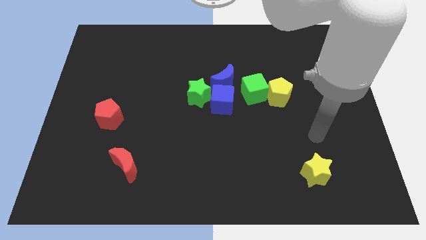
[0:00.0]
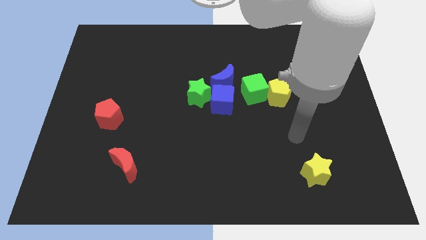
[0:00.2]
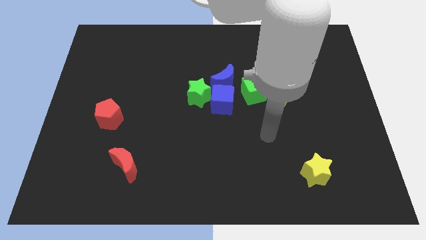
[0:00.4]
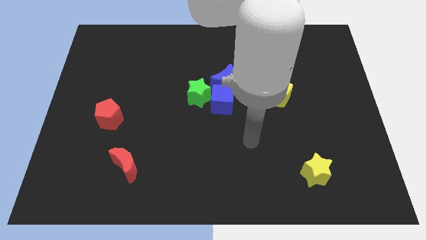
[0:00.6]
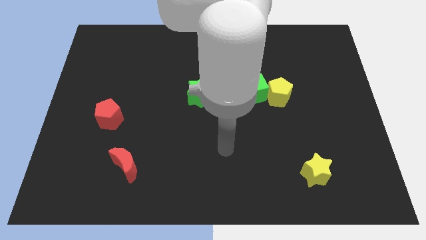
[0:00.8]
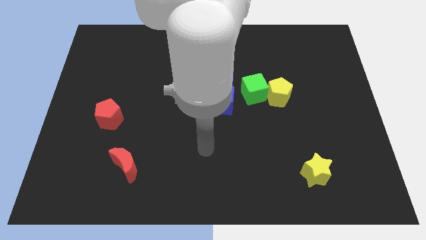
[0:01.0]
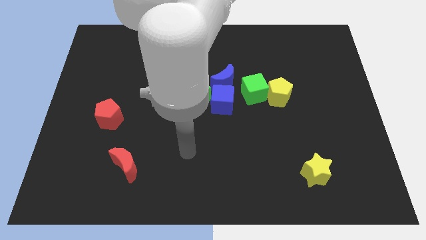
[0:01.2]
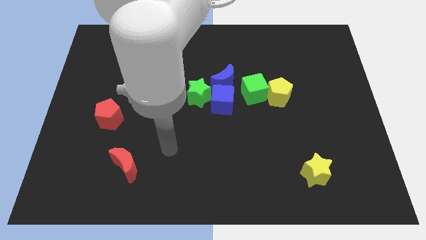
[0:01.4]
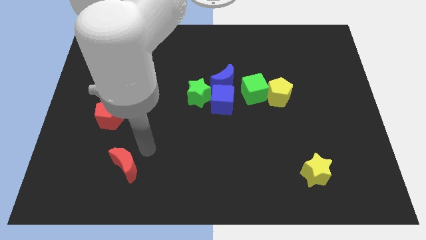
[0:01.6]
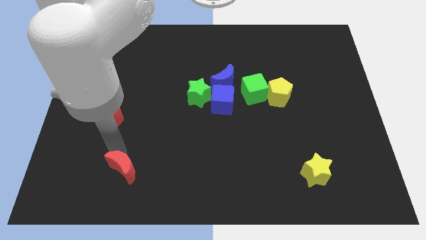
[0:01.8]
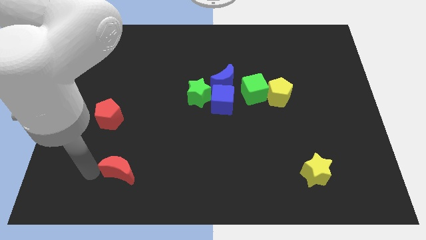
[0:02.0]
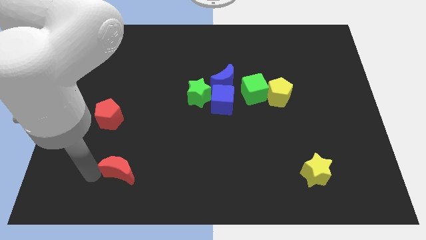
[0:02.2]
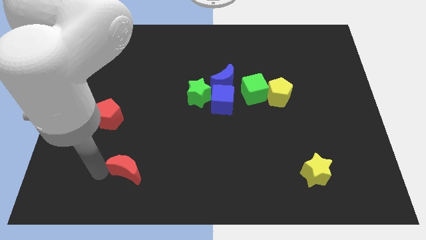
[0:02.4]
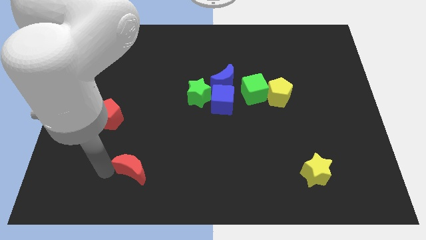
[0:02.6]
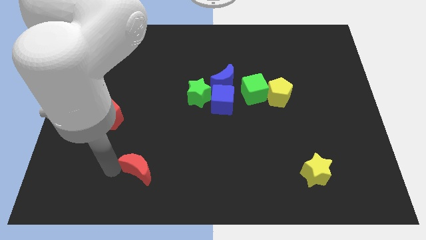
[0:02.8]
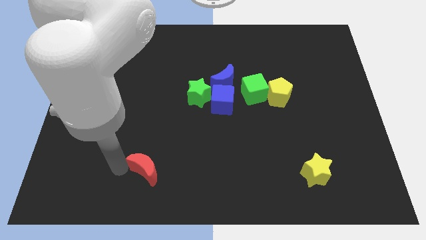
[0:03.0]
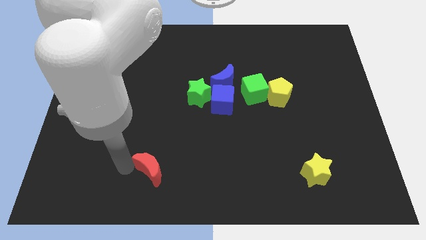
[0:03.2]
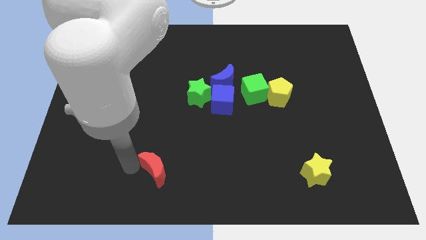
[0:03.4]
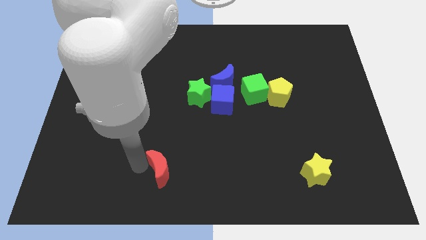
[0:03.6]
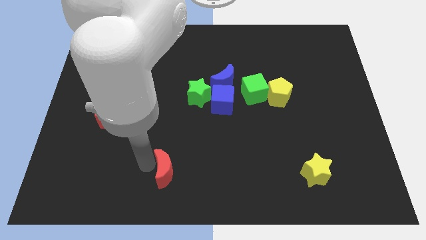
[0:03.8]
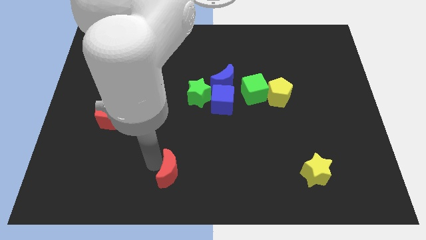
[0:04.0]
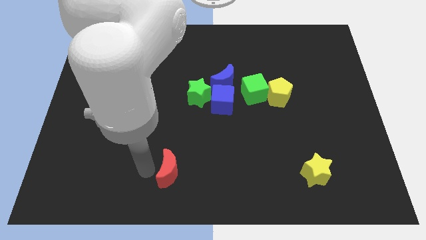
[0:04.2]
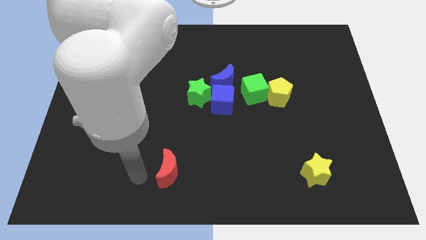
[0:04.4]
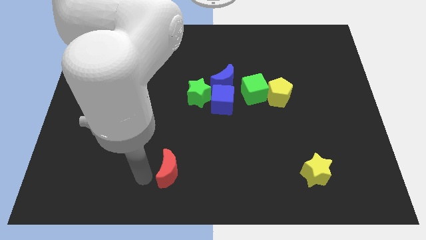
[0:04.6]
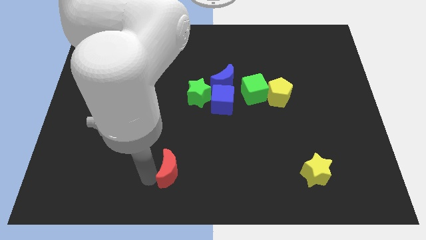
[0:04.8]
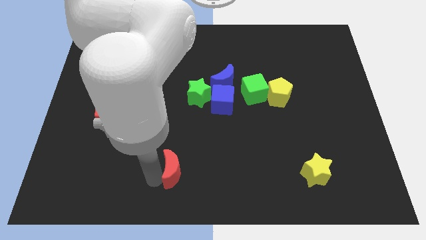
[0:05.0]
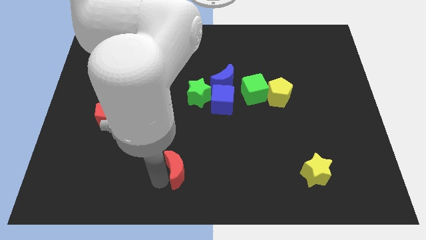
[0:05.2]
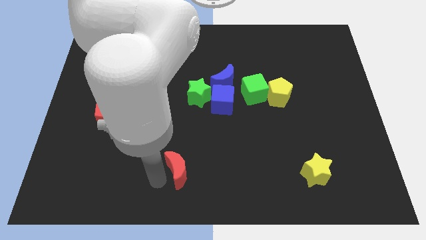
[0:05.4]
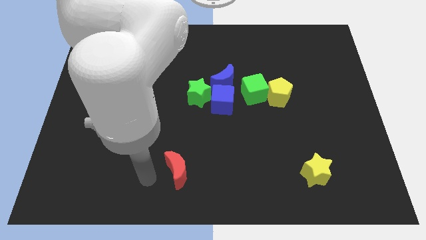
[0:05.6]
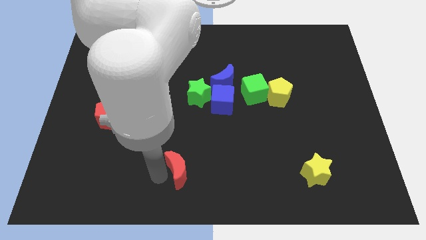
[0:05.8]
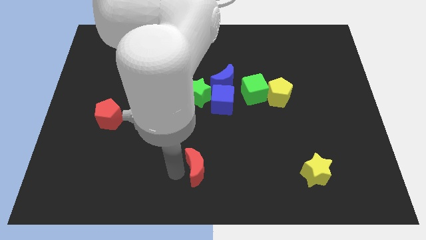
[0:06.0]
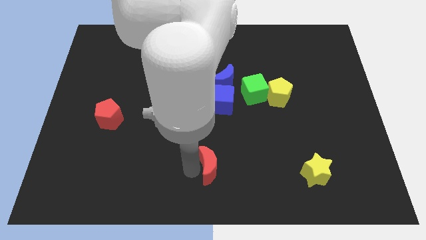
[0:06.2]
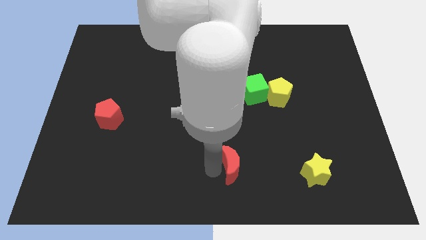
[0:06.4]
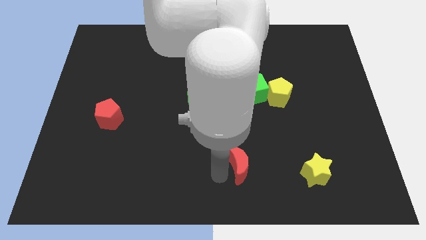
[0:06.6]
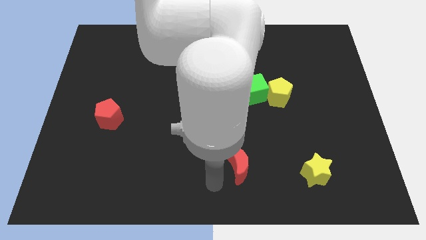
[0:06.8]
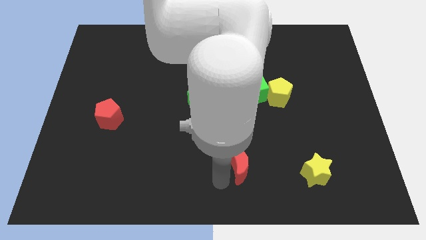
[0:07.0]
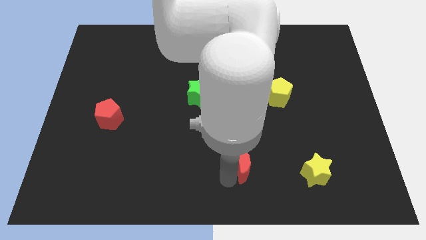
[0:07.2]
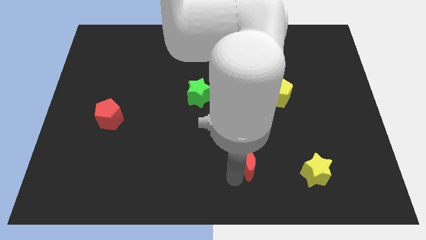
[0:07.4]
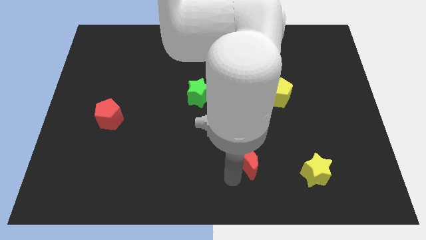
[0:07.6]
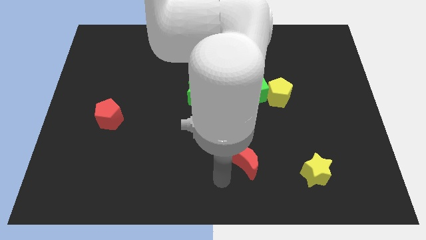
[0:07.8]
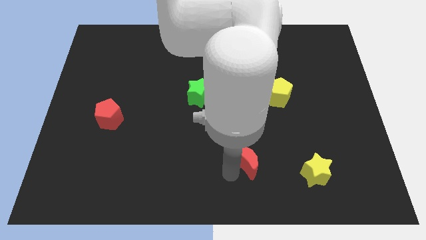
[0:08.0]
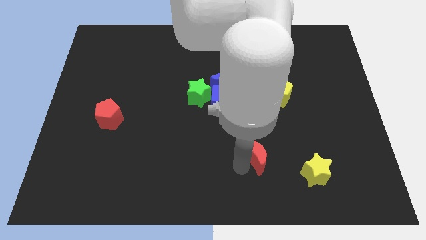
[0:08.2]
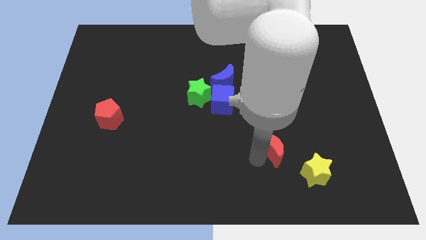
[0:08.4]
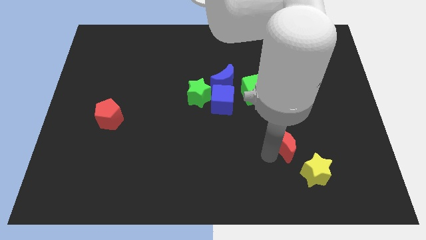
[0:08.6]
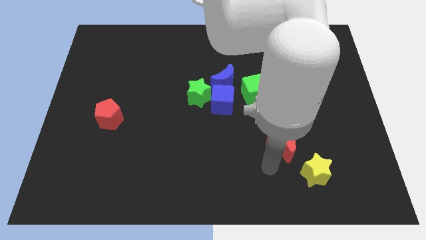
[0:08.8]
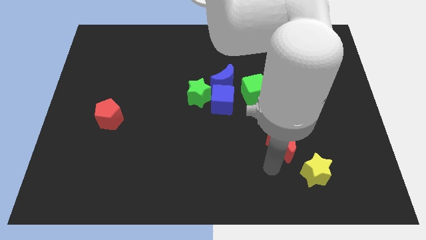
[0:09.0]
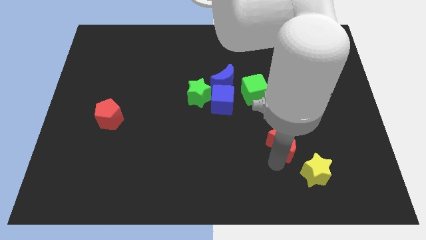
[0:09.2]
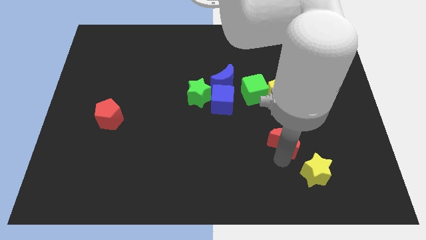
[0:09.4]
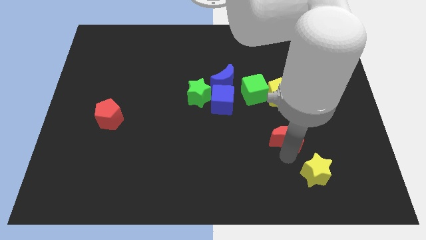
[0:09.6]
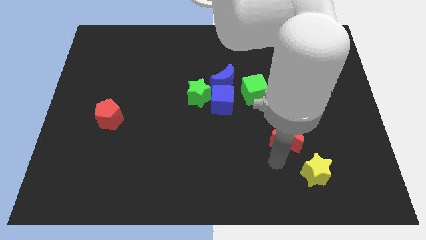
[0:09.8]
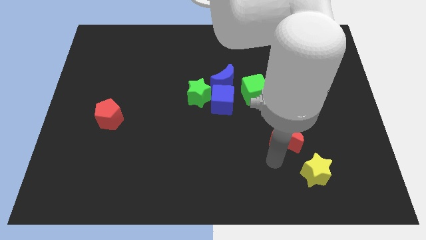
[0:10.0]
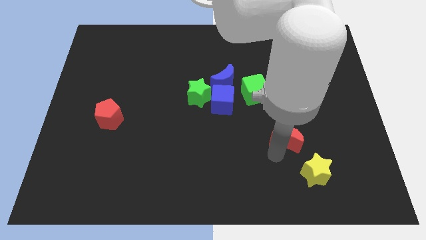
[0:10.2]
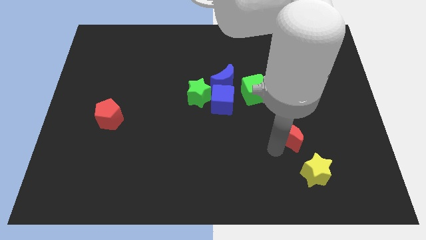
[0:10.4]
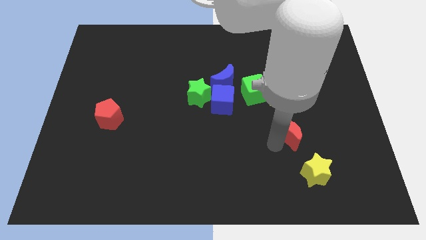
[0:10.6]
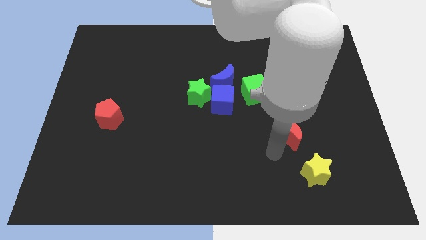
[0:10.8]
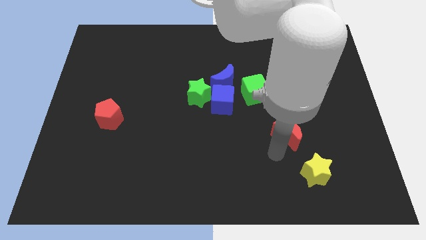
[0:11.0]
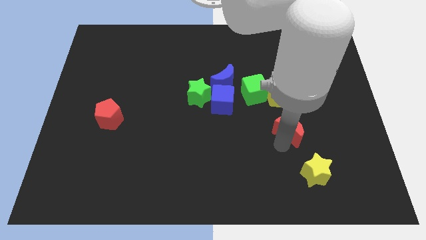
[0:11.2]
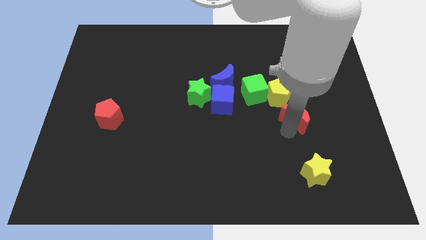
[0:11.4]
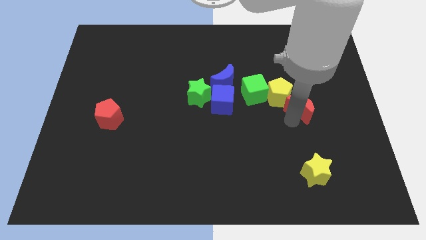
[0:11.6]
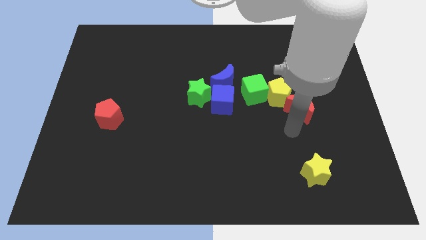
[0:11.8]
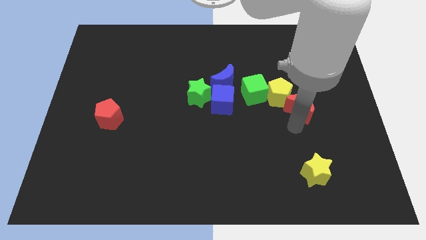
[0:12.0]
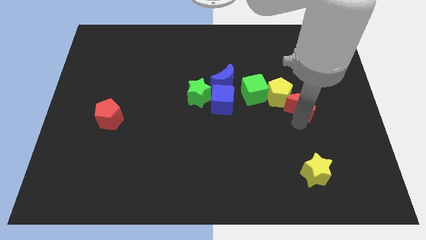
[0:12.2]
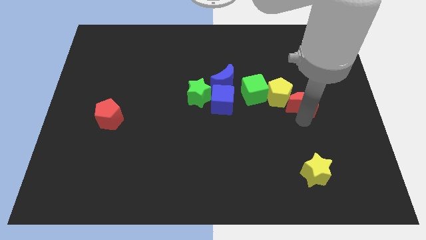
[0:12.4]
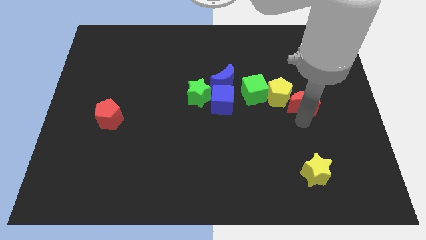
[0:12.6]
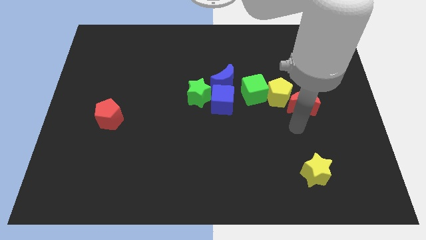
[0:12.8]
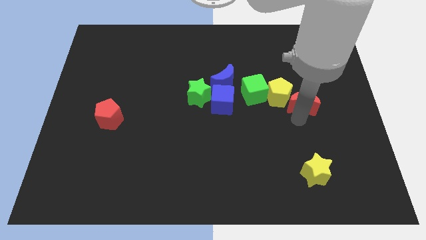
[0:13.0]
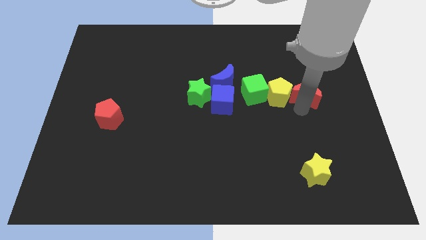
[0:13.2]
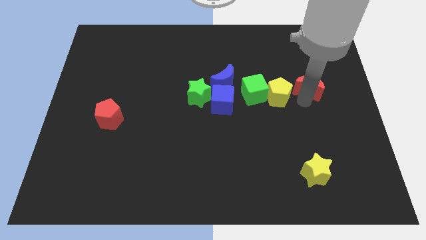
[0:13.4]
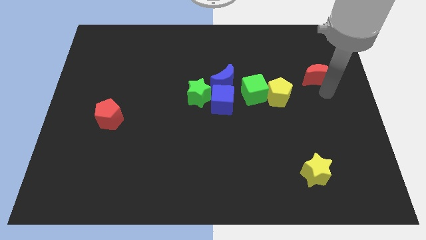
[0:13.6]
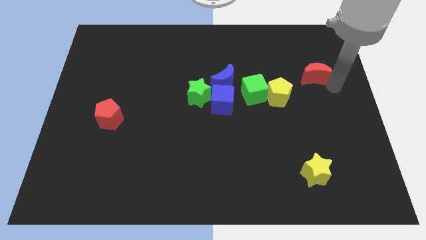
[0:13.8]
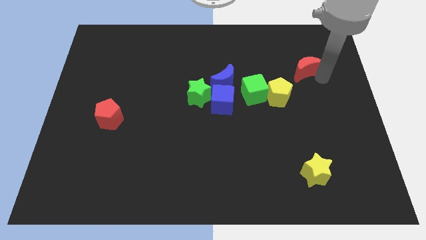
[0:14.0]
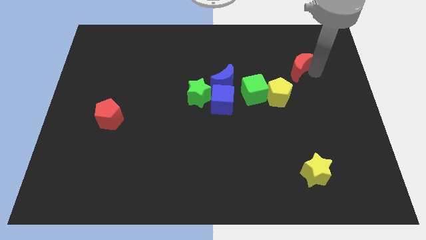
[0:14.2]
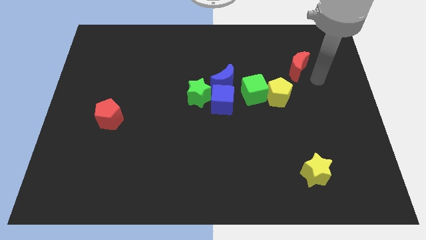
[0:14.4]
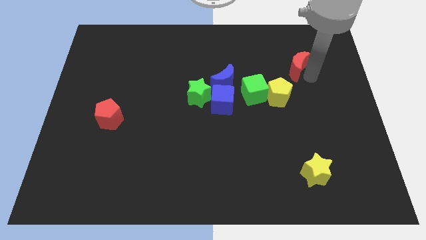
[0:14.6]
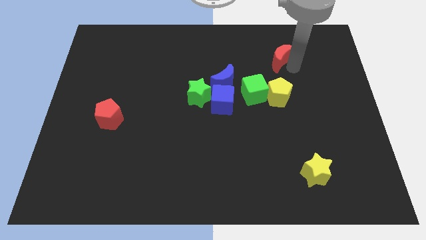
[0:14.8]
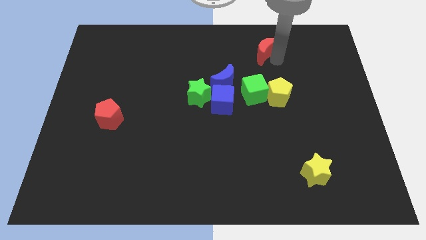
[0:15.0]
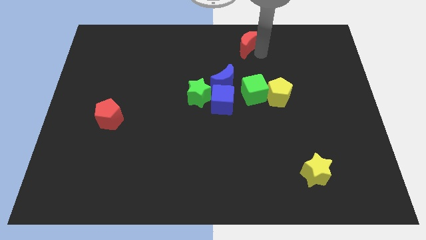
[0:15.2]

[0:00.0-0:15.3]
slide the red moon to the top

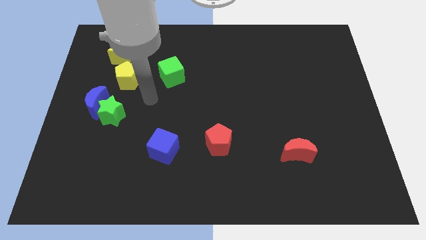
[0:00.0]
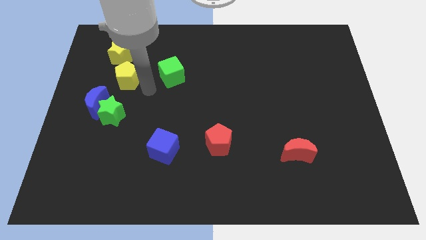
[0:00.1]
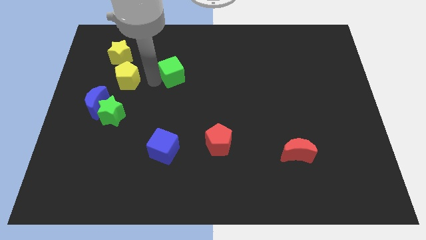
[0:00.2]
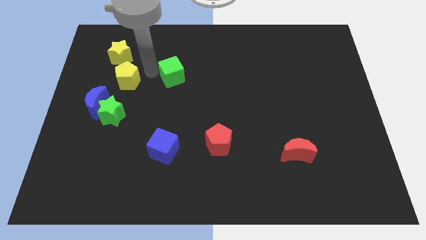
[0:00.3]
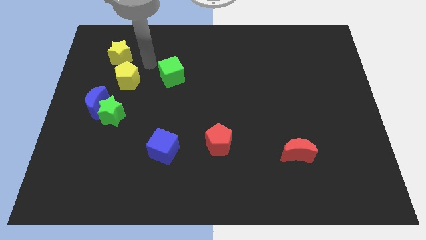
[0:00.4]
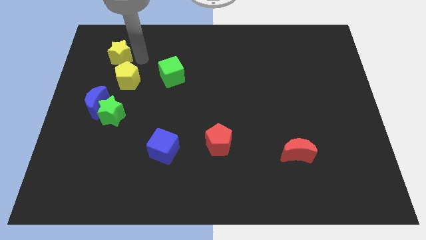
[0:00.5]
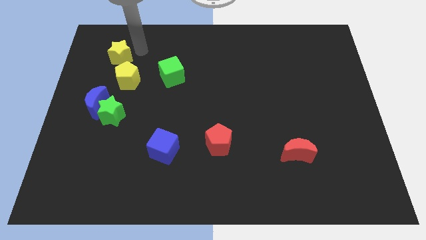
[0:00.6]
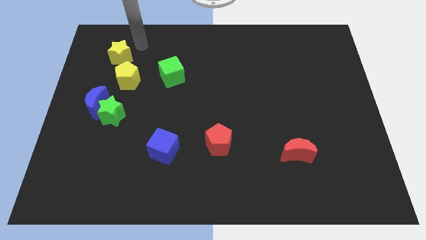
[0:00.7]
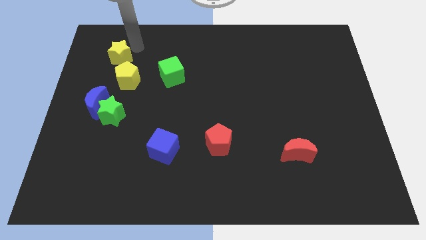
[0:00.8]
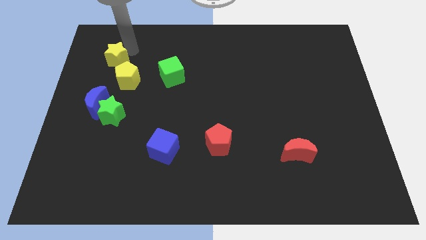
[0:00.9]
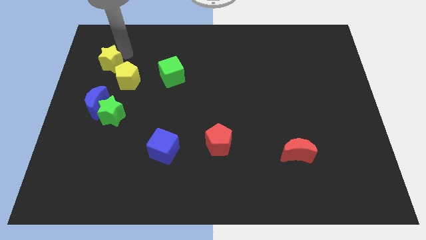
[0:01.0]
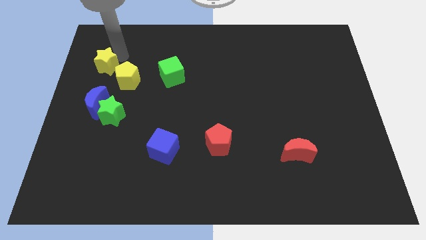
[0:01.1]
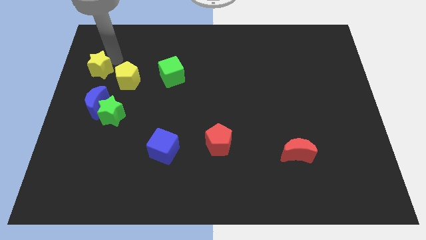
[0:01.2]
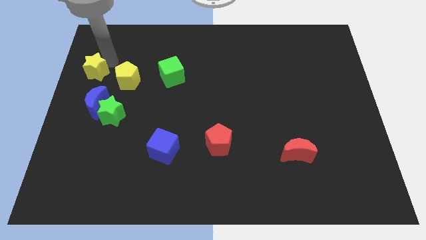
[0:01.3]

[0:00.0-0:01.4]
put the yellow star to the left side
